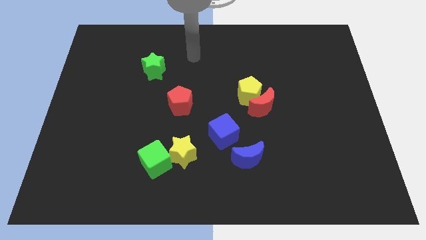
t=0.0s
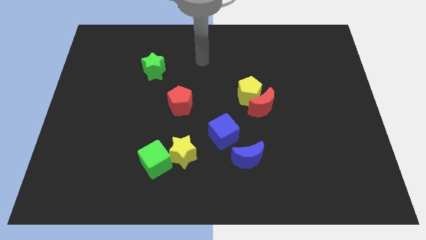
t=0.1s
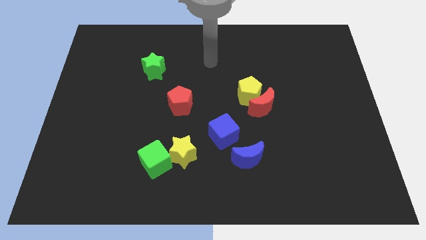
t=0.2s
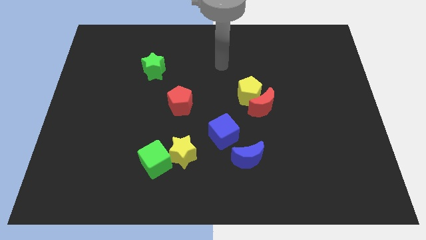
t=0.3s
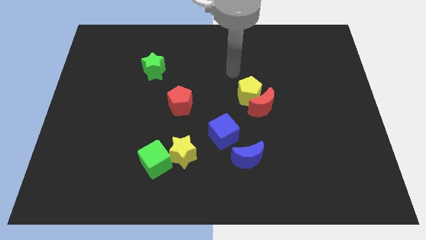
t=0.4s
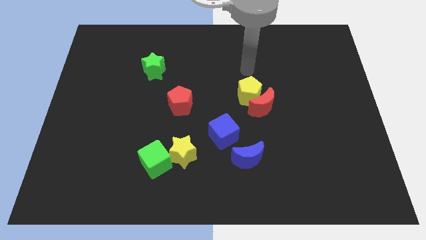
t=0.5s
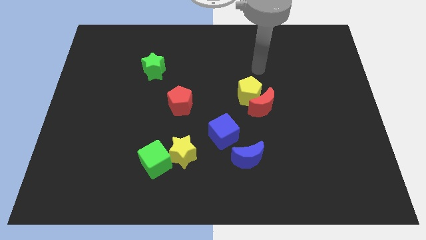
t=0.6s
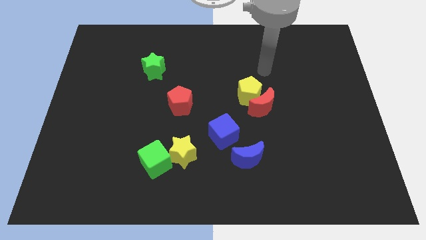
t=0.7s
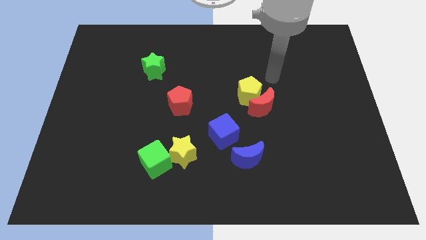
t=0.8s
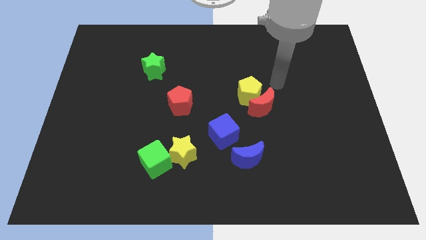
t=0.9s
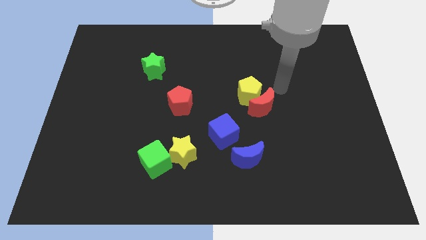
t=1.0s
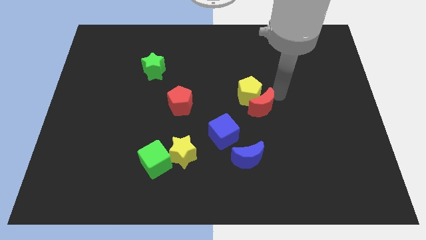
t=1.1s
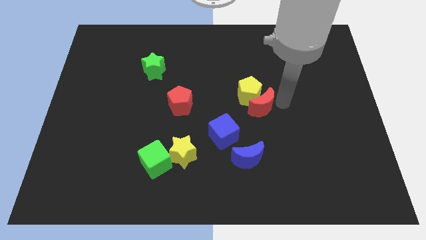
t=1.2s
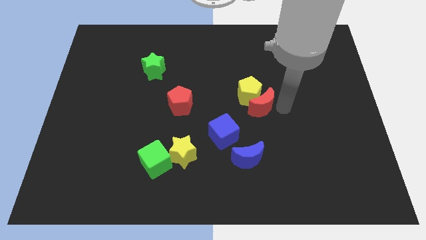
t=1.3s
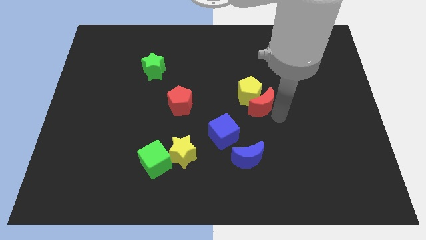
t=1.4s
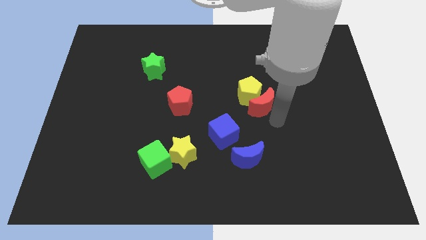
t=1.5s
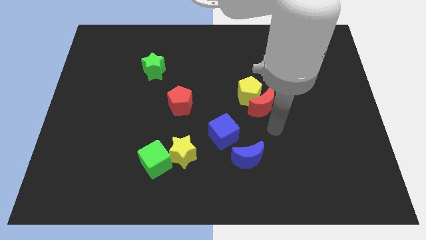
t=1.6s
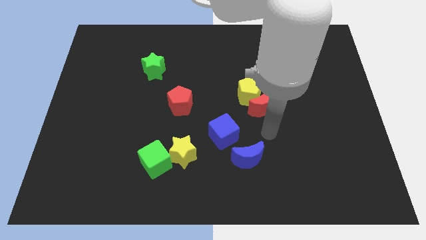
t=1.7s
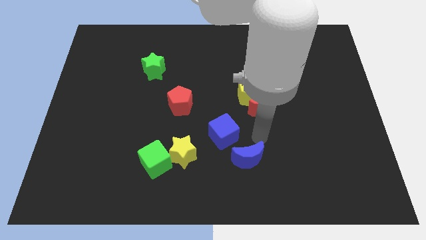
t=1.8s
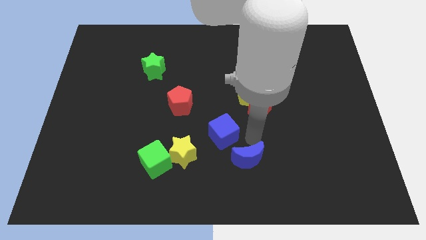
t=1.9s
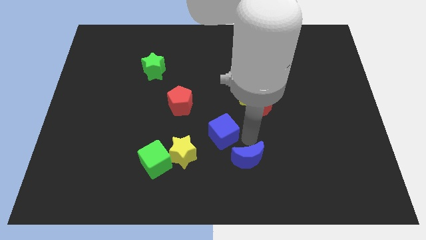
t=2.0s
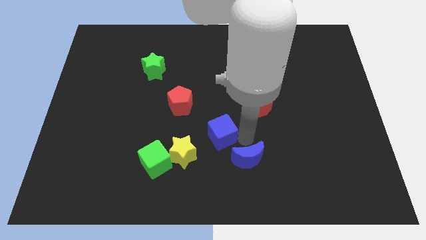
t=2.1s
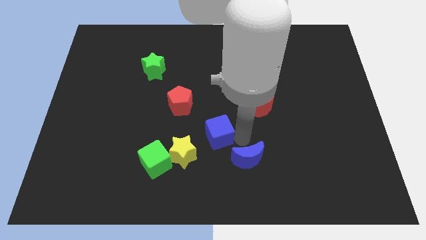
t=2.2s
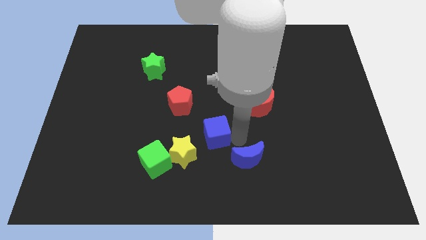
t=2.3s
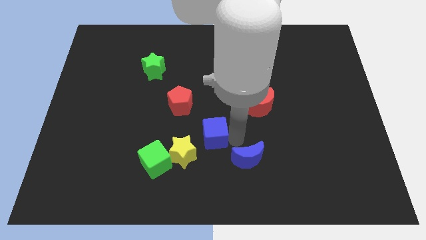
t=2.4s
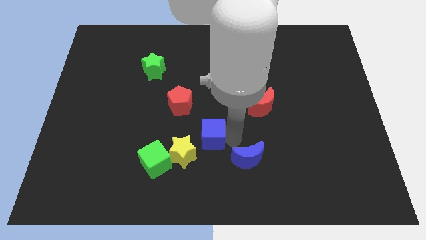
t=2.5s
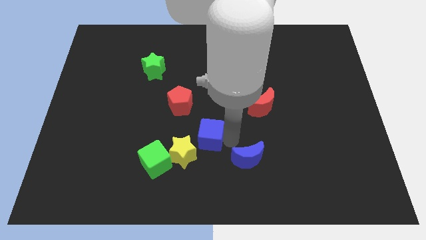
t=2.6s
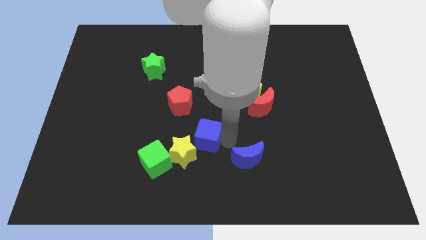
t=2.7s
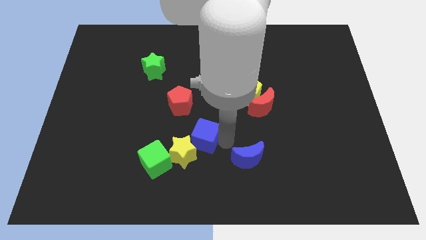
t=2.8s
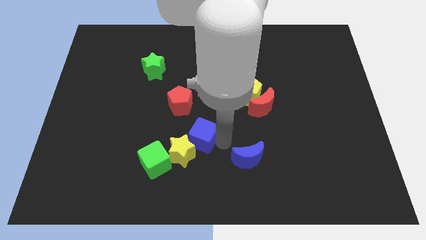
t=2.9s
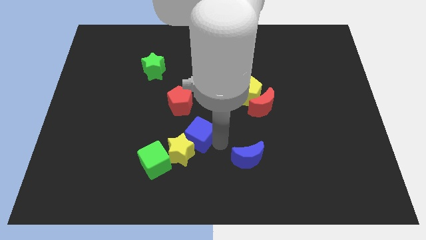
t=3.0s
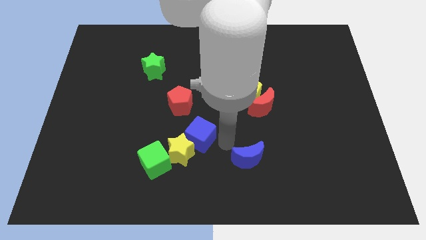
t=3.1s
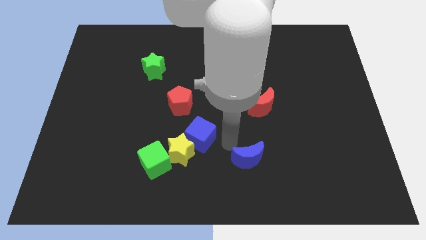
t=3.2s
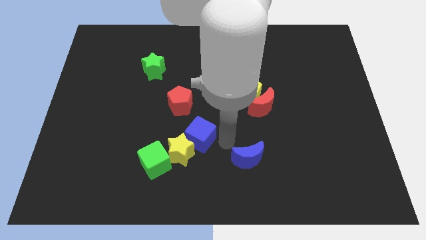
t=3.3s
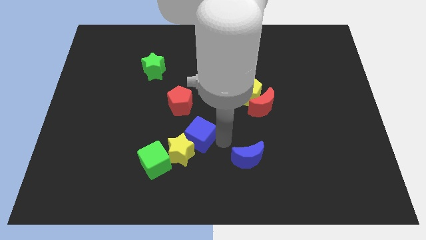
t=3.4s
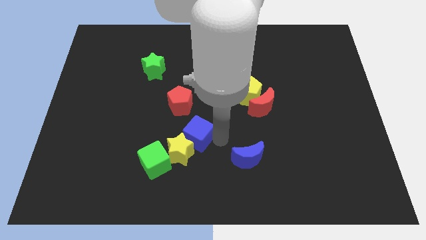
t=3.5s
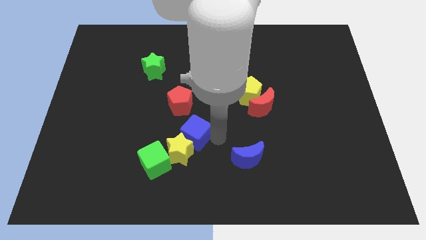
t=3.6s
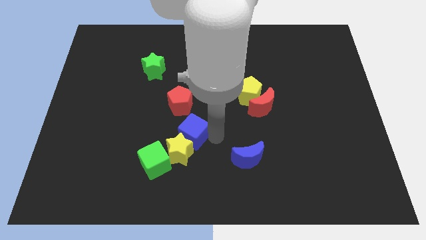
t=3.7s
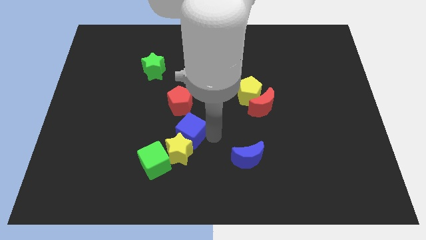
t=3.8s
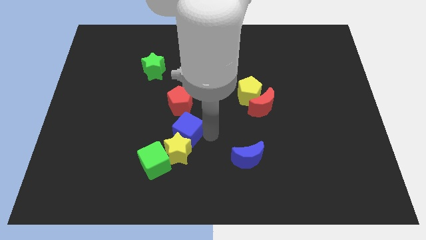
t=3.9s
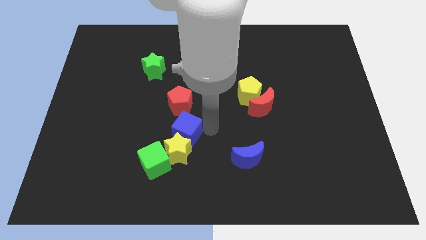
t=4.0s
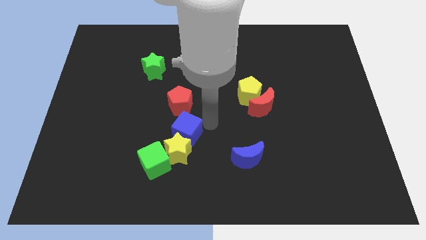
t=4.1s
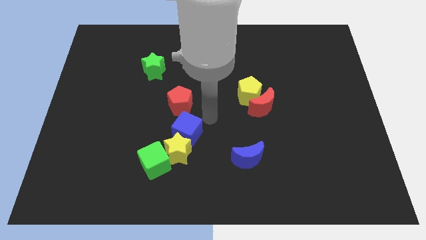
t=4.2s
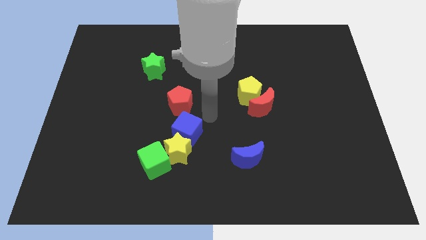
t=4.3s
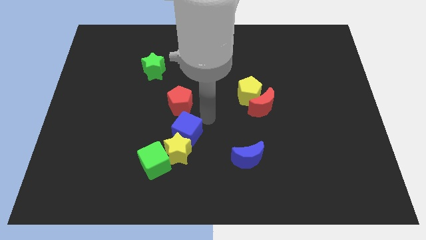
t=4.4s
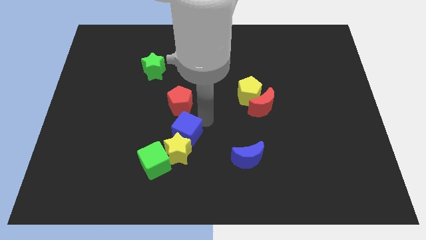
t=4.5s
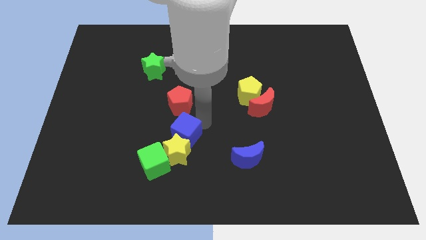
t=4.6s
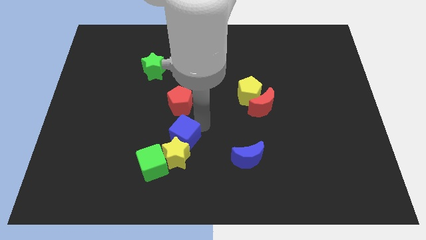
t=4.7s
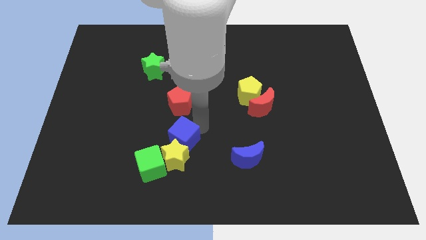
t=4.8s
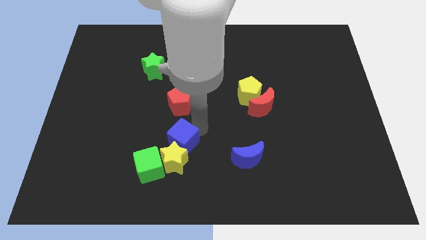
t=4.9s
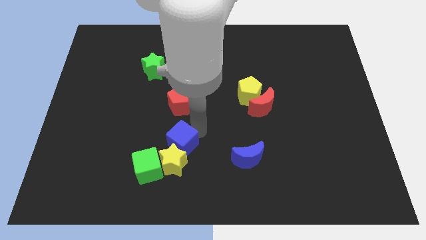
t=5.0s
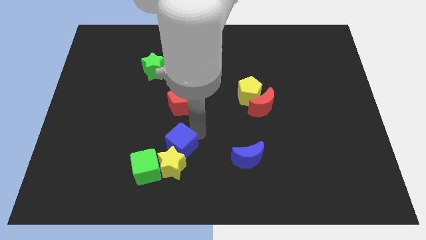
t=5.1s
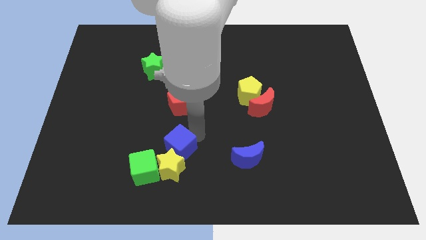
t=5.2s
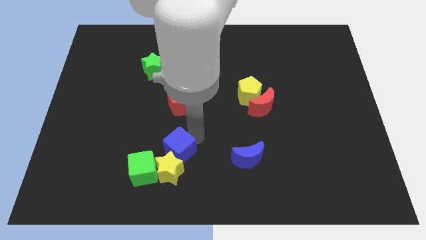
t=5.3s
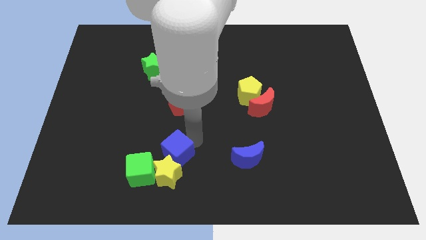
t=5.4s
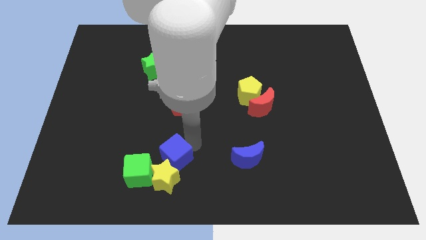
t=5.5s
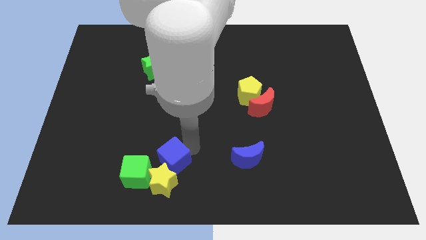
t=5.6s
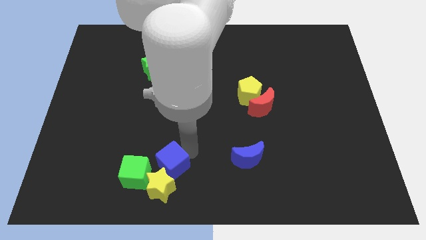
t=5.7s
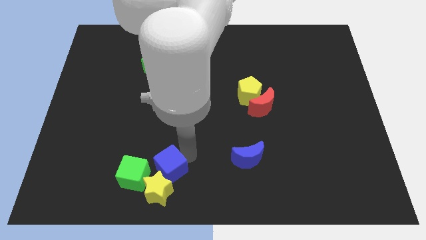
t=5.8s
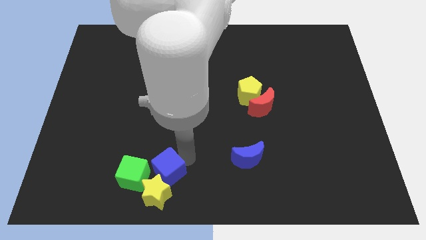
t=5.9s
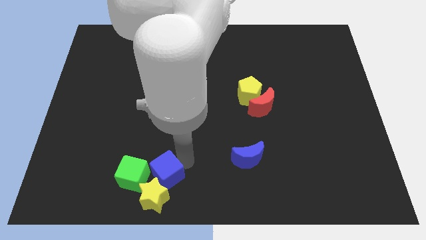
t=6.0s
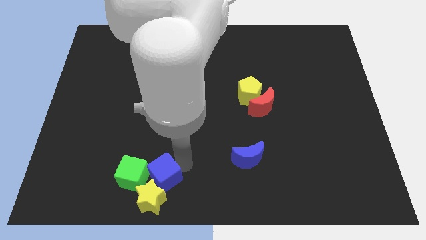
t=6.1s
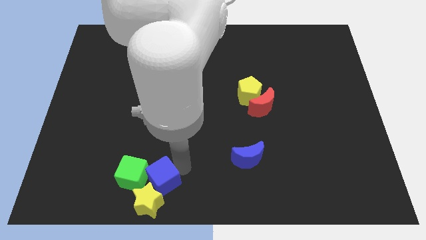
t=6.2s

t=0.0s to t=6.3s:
slide the blue cube close to the green cube

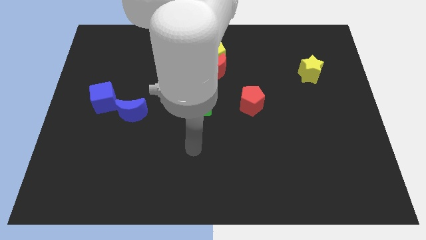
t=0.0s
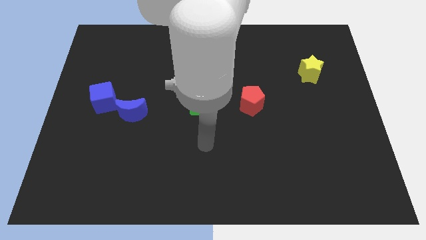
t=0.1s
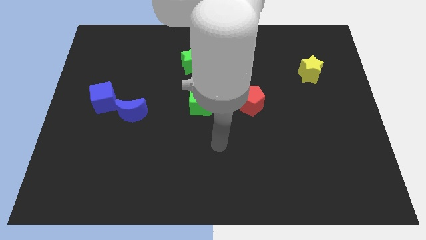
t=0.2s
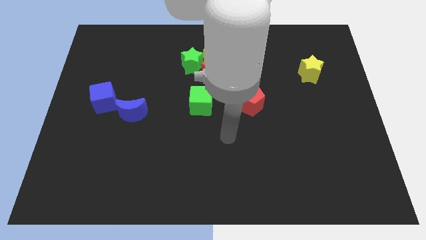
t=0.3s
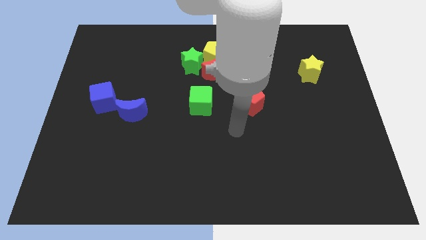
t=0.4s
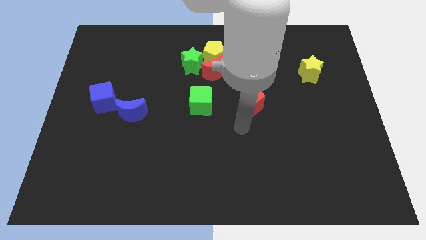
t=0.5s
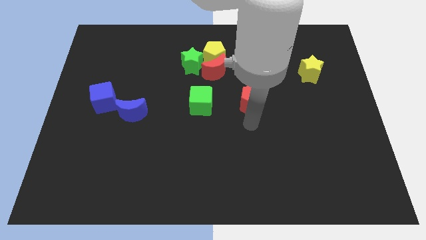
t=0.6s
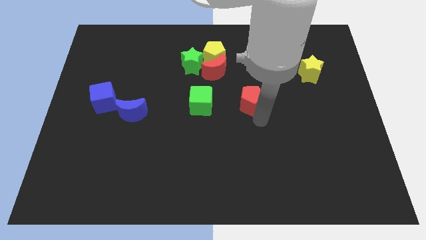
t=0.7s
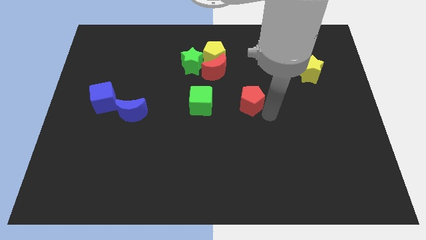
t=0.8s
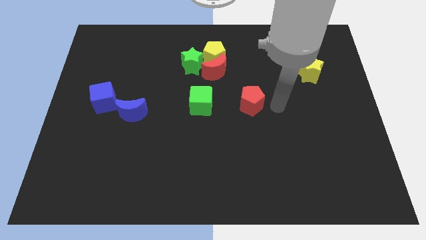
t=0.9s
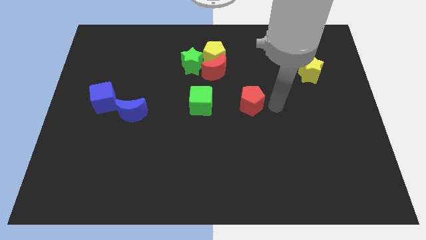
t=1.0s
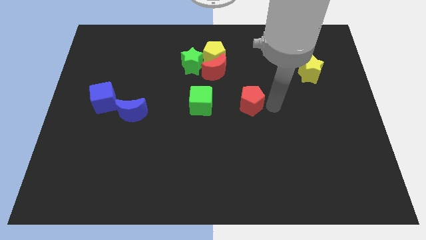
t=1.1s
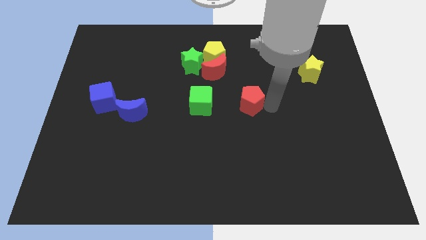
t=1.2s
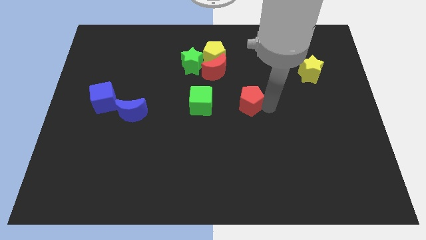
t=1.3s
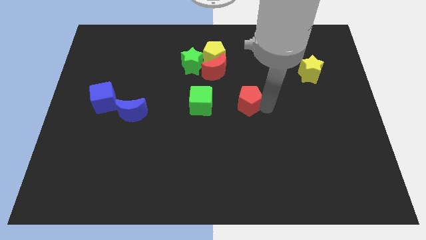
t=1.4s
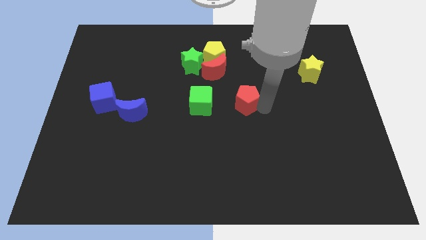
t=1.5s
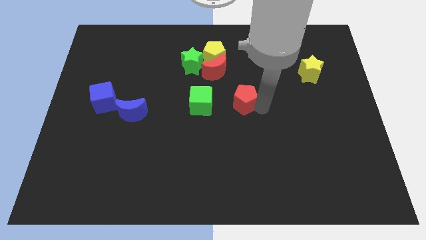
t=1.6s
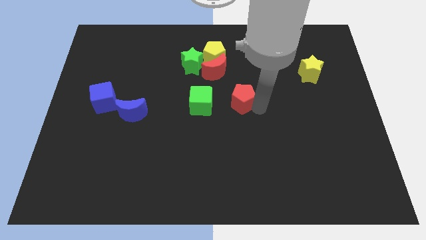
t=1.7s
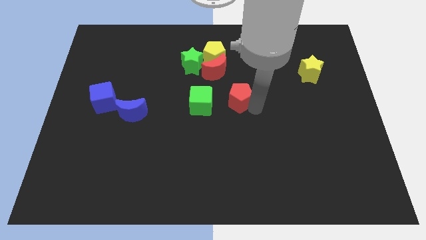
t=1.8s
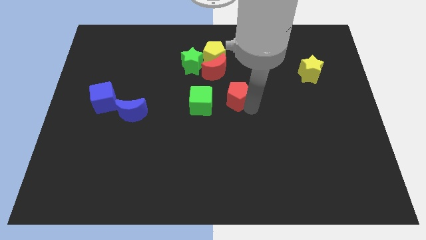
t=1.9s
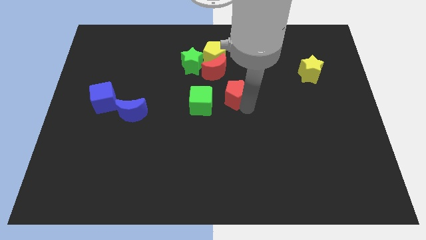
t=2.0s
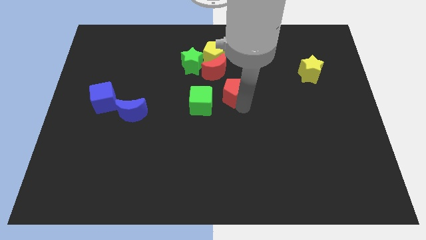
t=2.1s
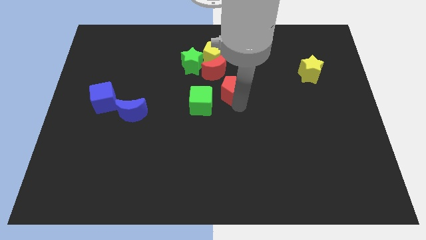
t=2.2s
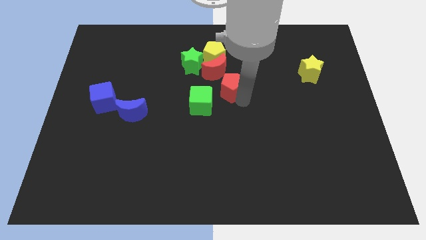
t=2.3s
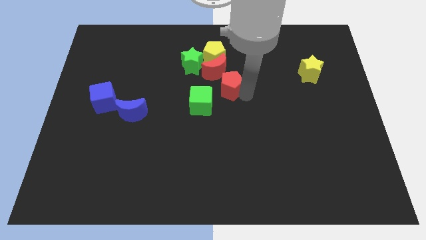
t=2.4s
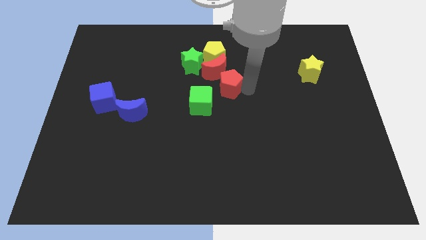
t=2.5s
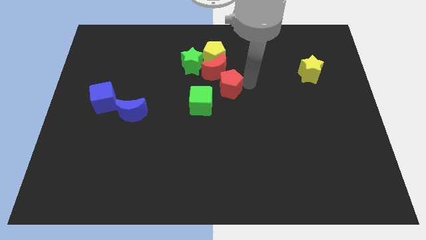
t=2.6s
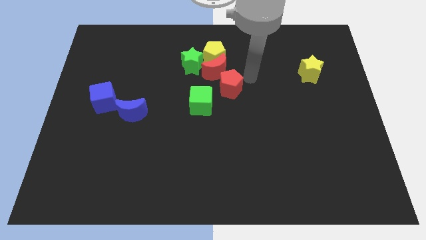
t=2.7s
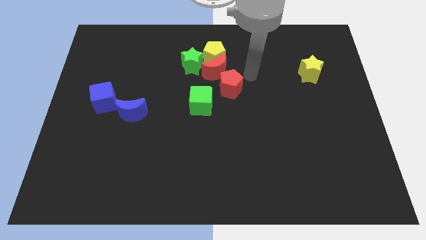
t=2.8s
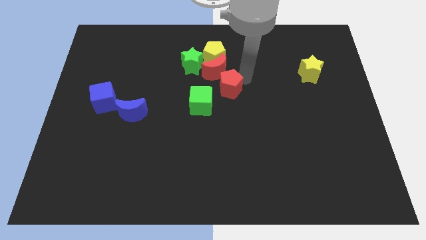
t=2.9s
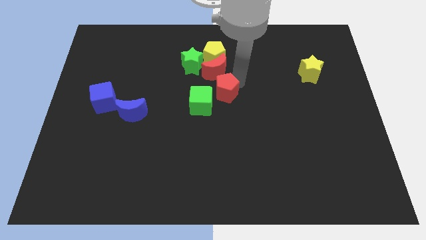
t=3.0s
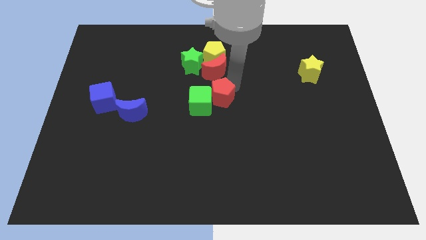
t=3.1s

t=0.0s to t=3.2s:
slide the red pentagon to the green cube
